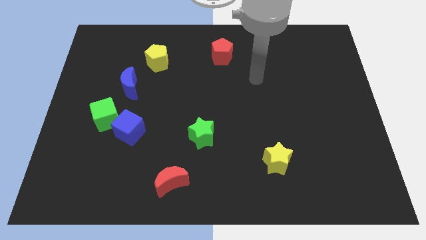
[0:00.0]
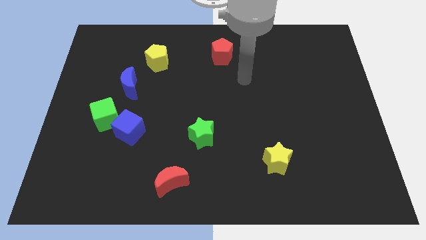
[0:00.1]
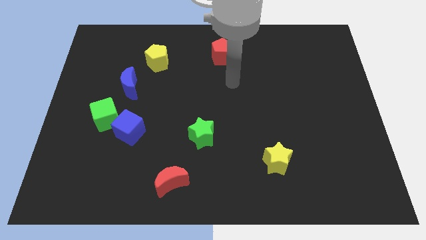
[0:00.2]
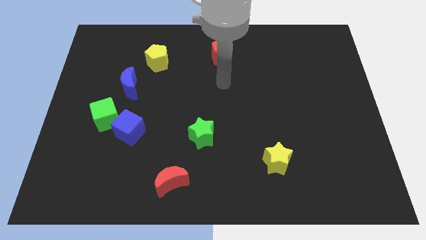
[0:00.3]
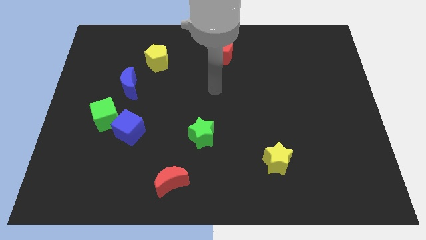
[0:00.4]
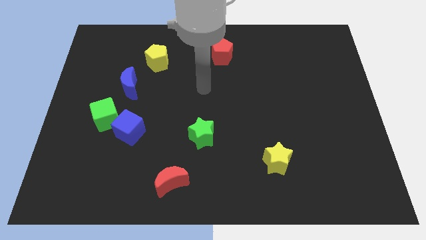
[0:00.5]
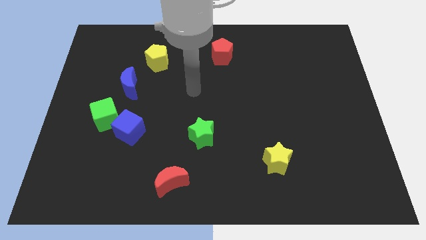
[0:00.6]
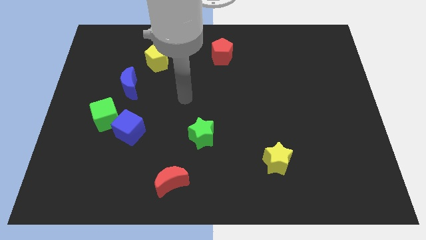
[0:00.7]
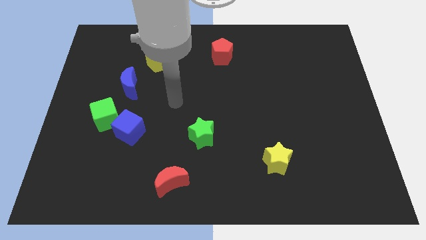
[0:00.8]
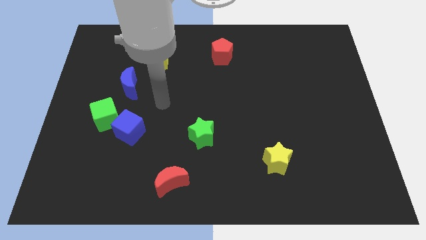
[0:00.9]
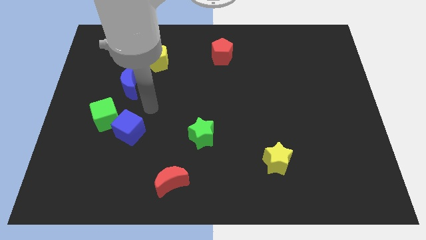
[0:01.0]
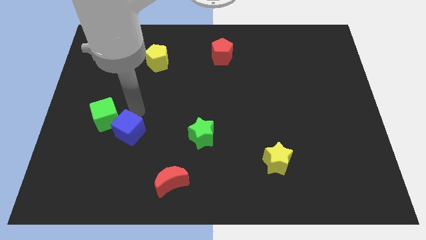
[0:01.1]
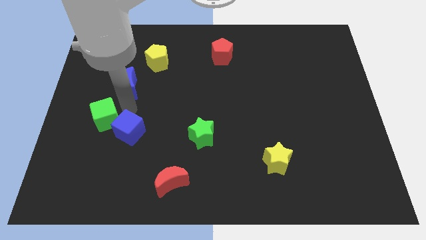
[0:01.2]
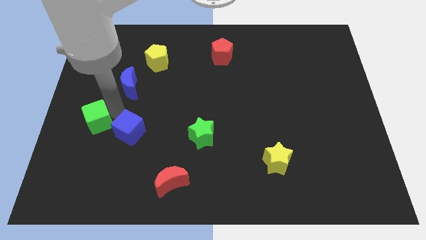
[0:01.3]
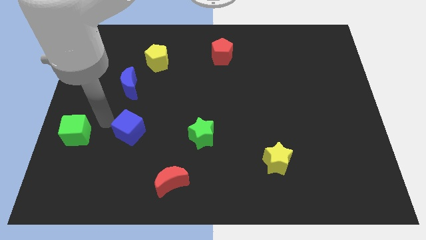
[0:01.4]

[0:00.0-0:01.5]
pull the blue cube apart from the green cube

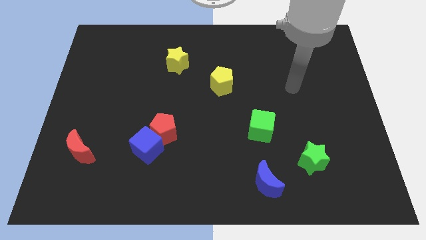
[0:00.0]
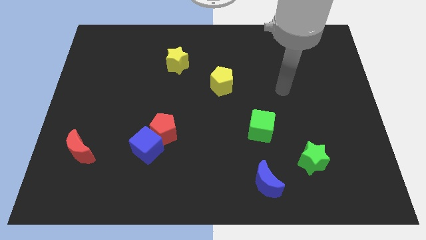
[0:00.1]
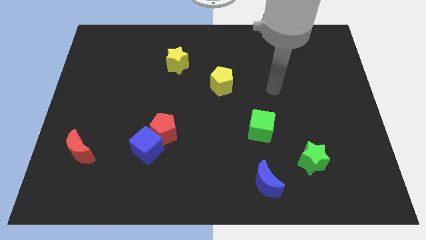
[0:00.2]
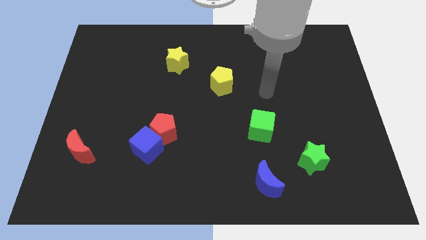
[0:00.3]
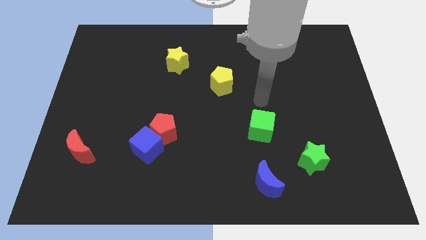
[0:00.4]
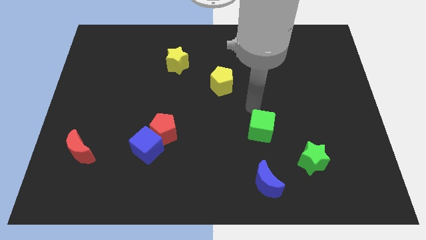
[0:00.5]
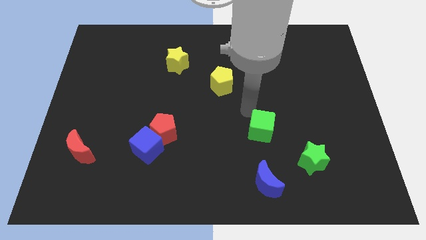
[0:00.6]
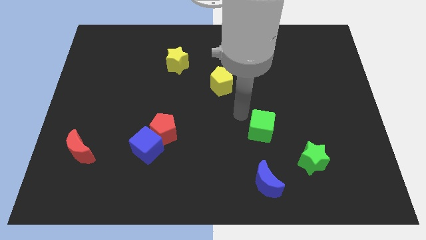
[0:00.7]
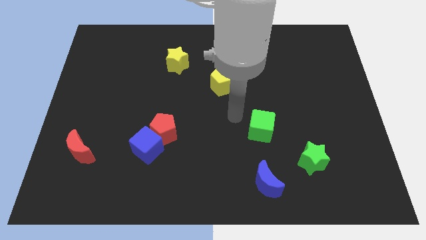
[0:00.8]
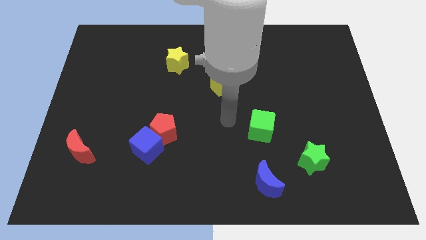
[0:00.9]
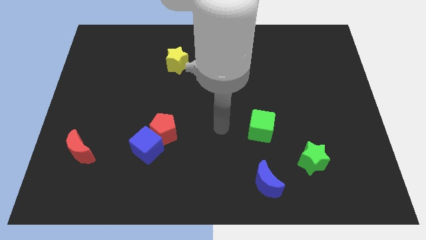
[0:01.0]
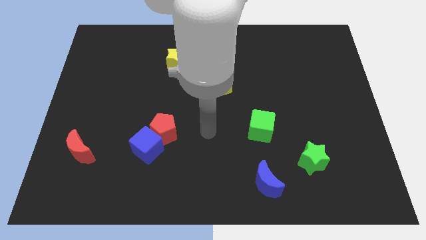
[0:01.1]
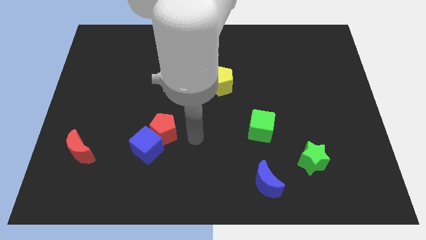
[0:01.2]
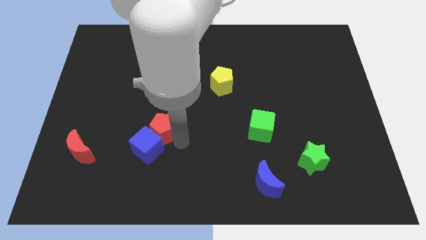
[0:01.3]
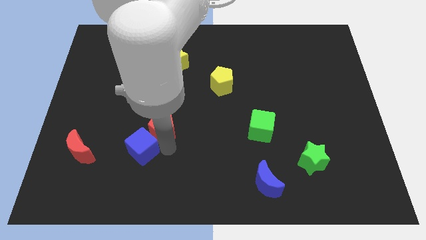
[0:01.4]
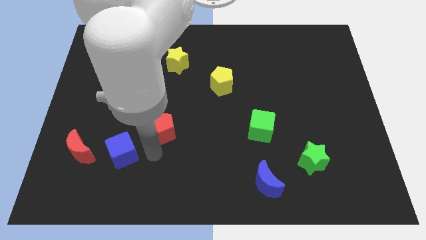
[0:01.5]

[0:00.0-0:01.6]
separate the red pentagon from the blue cube

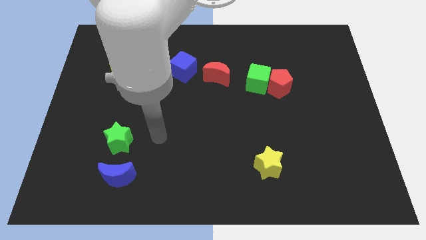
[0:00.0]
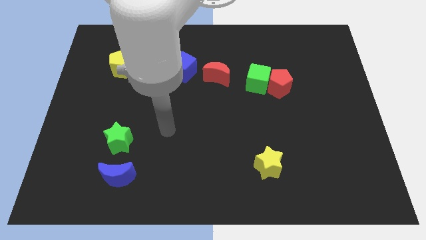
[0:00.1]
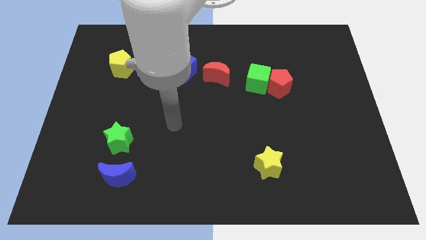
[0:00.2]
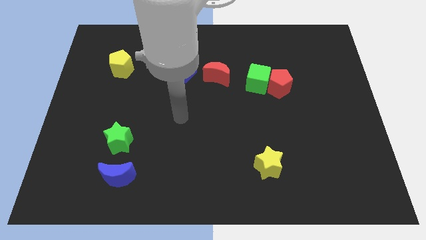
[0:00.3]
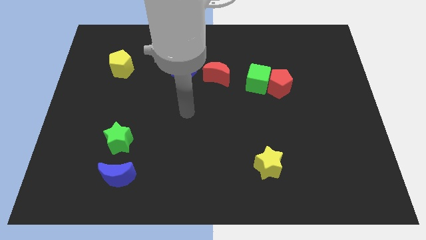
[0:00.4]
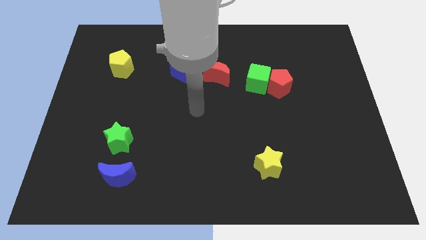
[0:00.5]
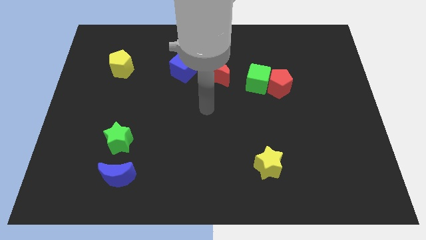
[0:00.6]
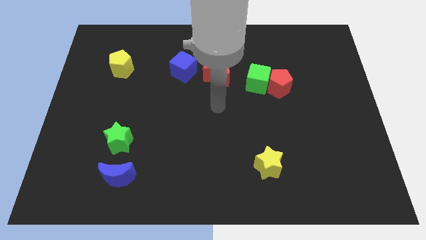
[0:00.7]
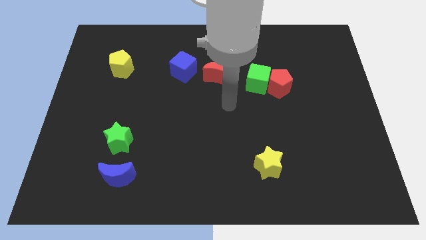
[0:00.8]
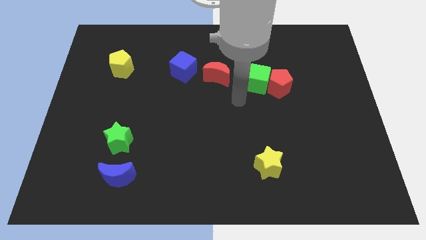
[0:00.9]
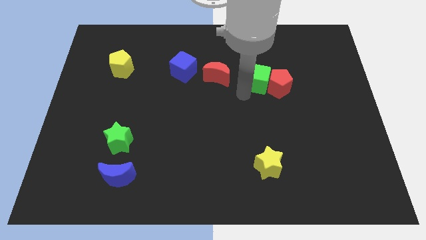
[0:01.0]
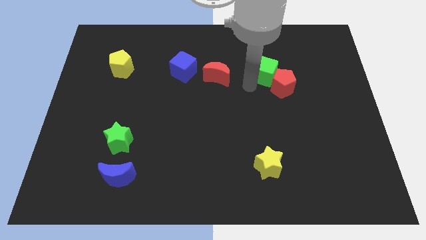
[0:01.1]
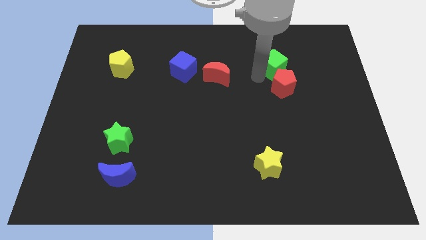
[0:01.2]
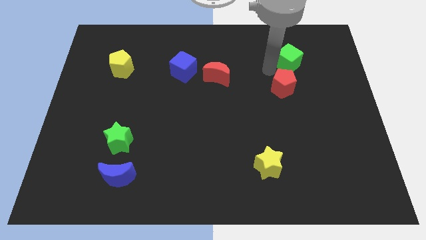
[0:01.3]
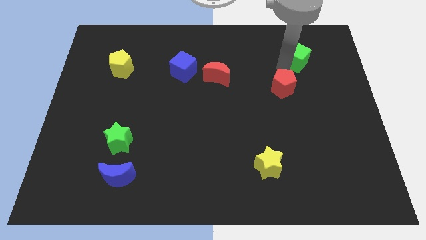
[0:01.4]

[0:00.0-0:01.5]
move the red pentagon away from the green cube

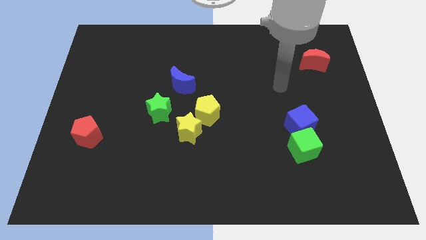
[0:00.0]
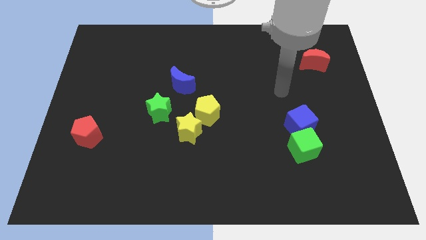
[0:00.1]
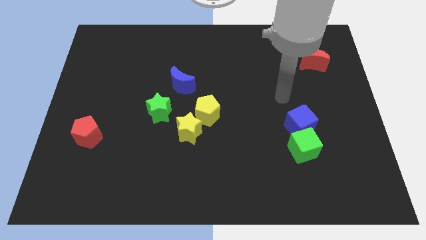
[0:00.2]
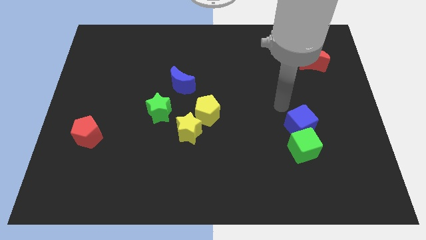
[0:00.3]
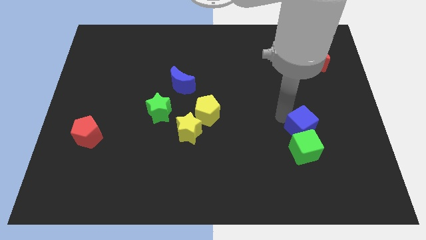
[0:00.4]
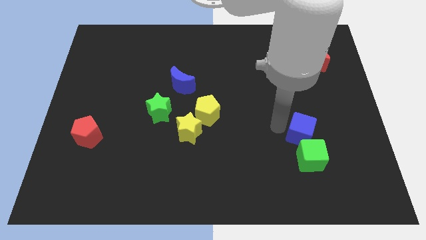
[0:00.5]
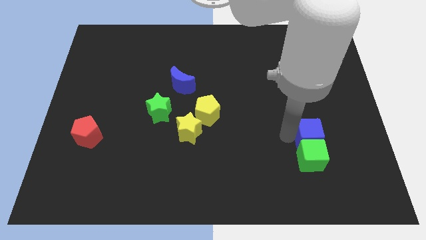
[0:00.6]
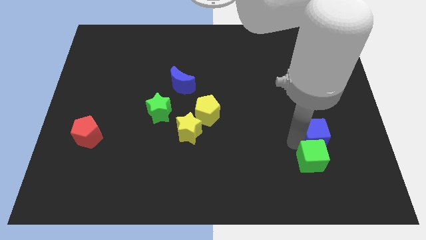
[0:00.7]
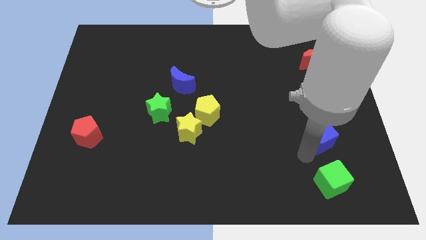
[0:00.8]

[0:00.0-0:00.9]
move the blue cube away from the green cube

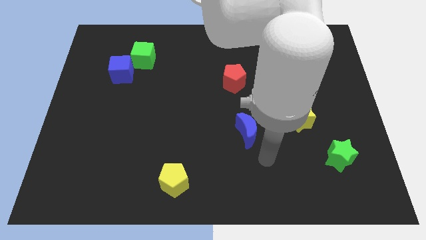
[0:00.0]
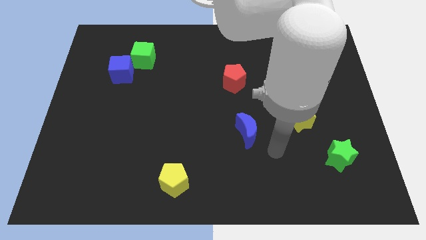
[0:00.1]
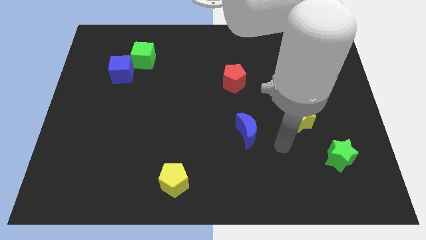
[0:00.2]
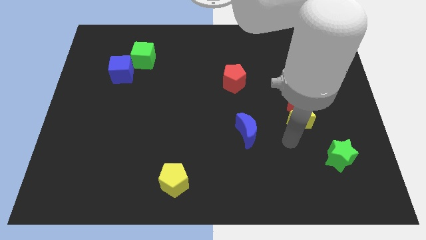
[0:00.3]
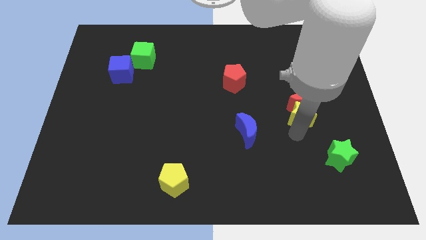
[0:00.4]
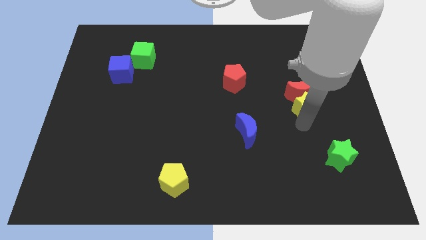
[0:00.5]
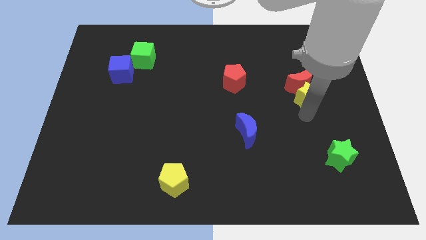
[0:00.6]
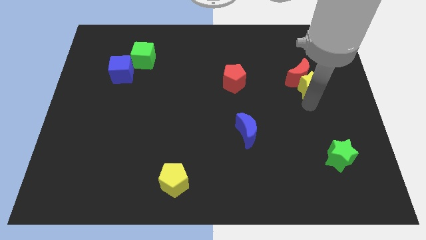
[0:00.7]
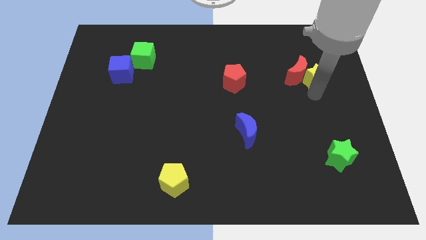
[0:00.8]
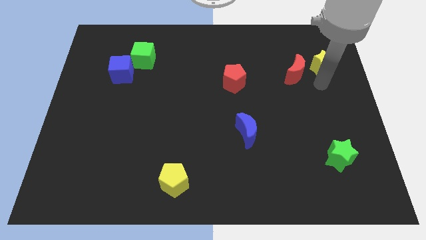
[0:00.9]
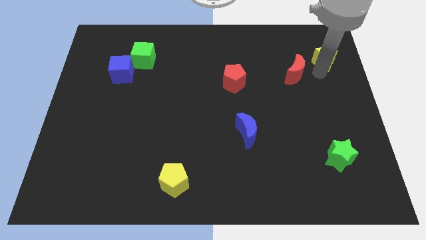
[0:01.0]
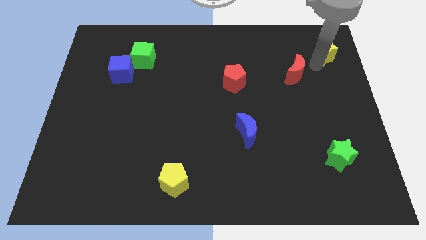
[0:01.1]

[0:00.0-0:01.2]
pull the red moon apart from the yellow star

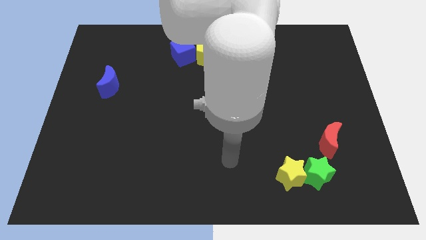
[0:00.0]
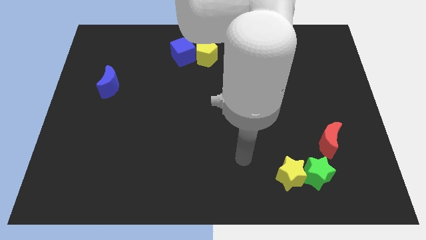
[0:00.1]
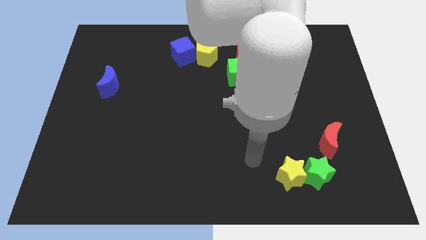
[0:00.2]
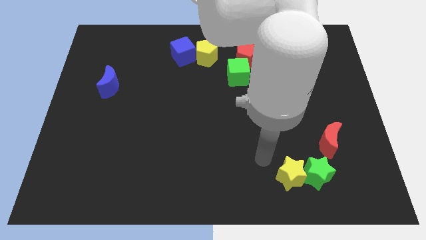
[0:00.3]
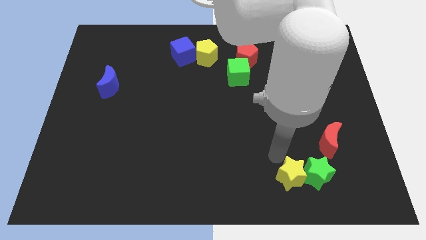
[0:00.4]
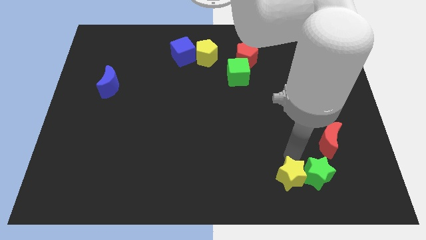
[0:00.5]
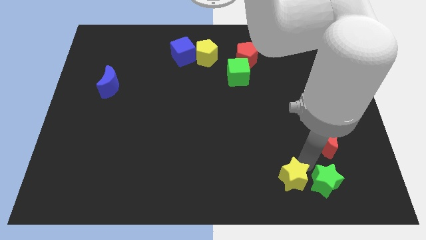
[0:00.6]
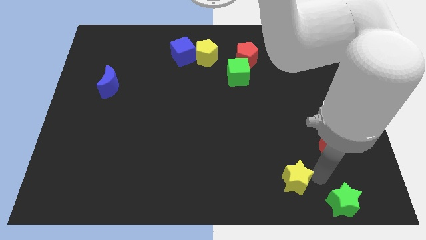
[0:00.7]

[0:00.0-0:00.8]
separate the yellow star from the green star

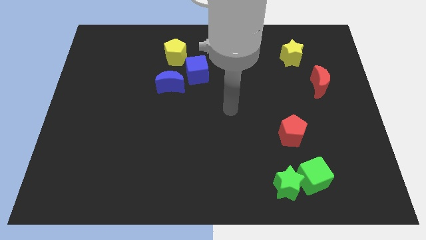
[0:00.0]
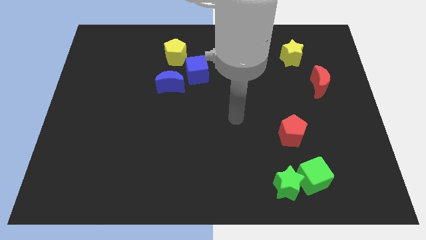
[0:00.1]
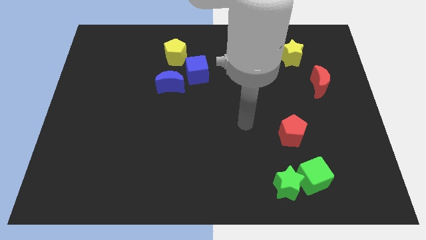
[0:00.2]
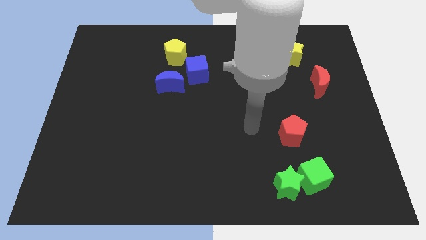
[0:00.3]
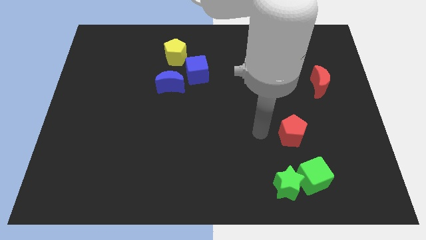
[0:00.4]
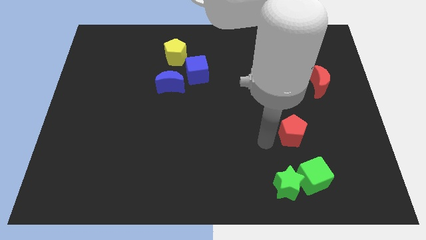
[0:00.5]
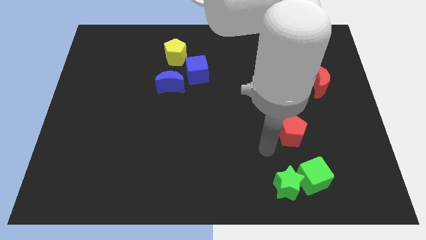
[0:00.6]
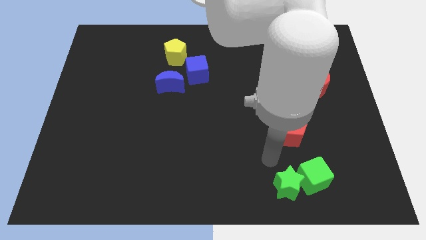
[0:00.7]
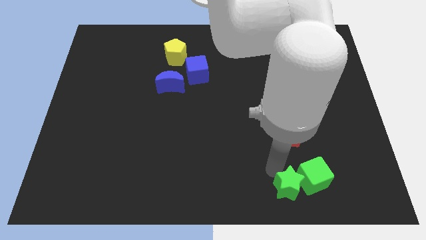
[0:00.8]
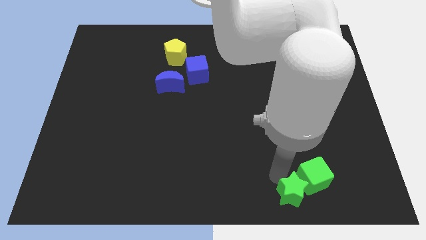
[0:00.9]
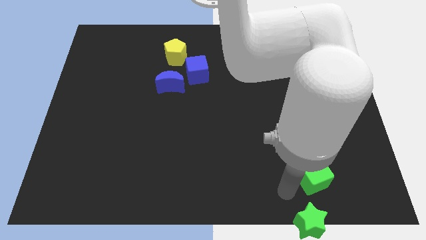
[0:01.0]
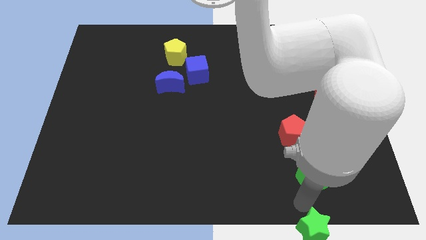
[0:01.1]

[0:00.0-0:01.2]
pull the green cube apart from the green star

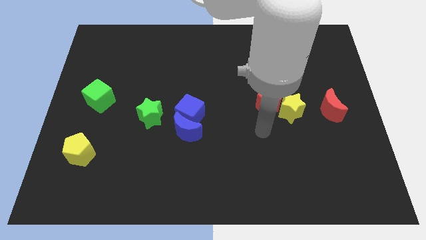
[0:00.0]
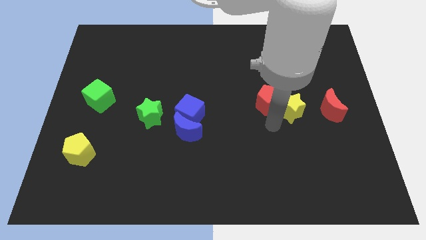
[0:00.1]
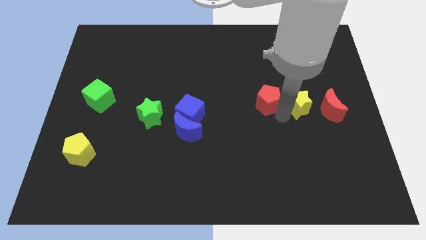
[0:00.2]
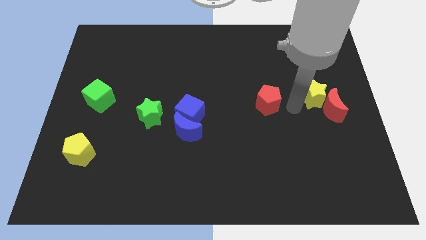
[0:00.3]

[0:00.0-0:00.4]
pull the red pentagon apart from the yellow star

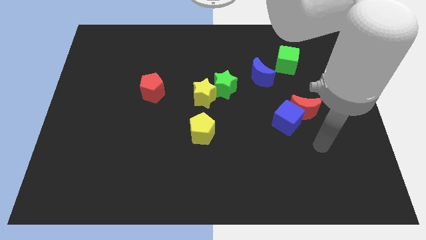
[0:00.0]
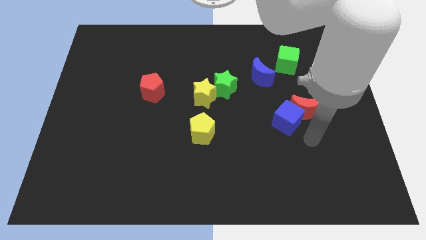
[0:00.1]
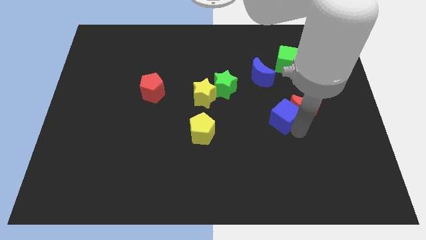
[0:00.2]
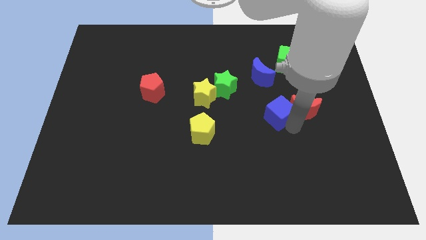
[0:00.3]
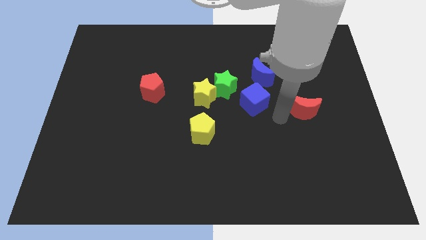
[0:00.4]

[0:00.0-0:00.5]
pull the red moon apart from the blue cube
